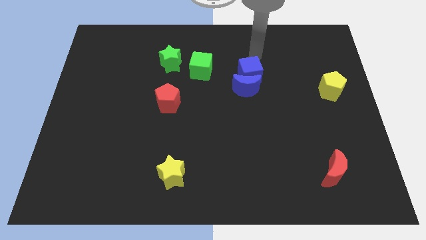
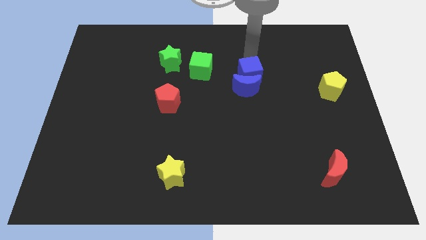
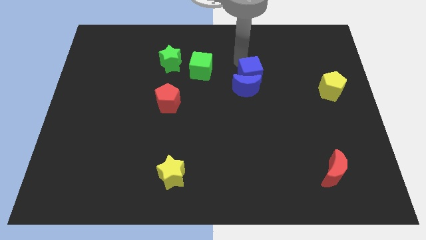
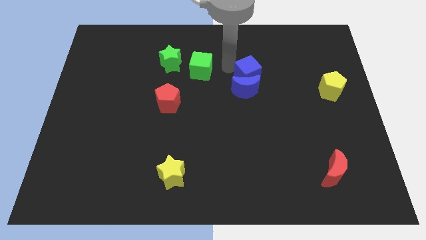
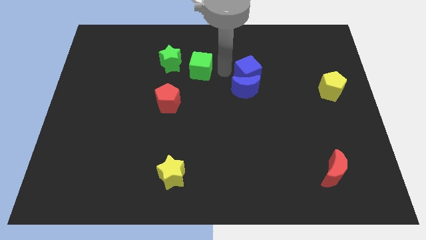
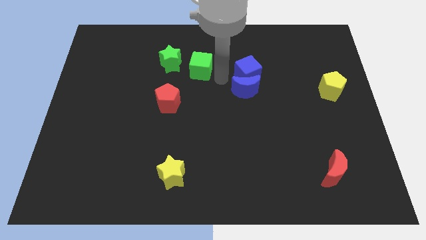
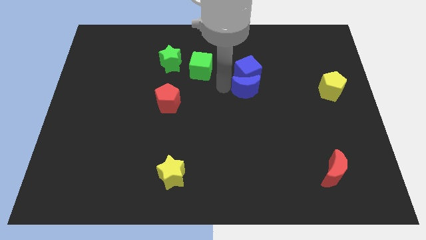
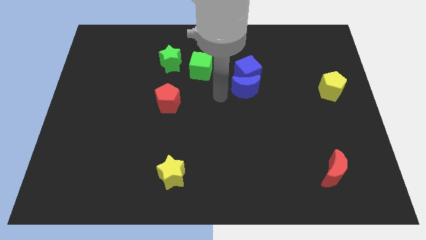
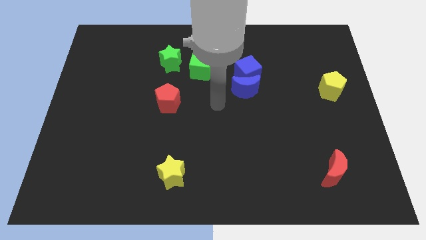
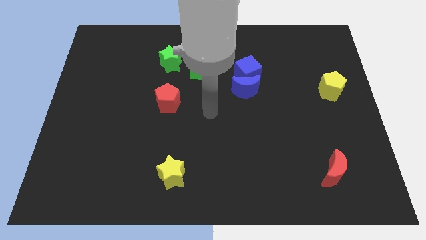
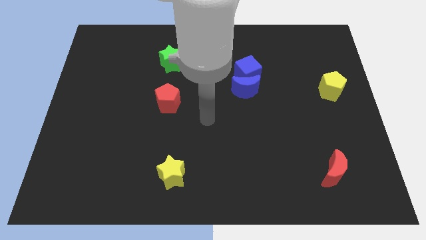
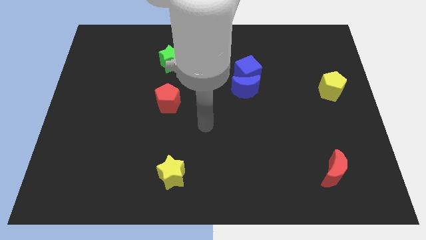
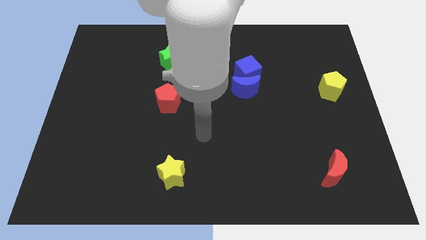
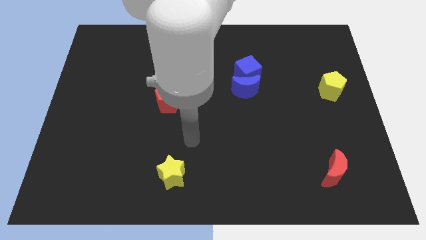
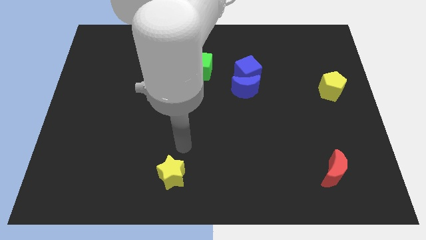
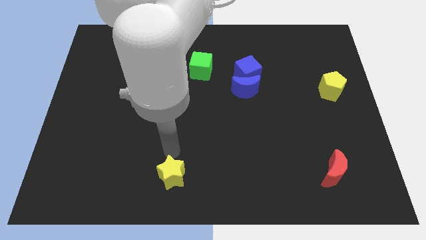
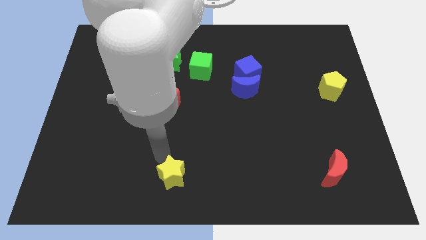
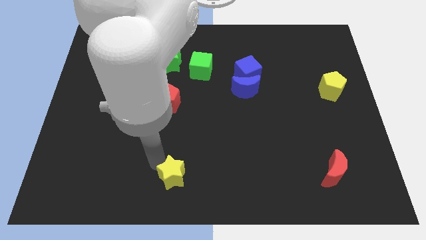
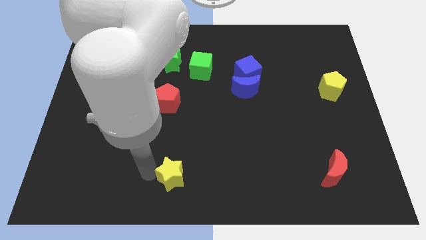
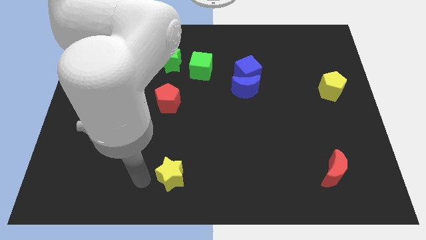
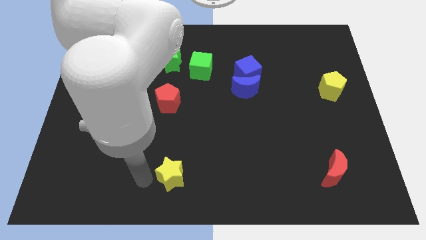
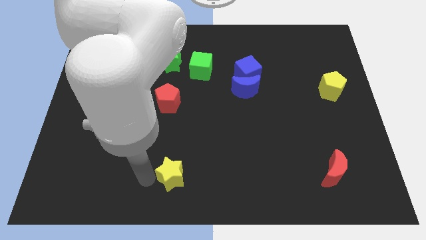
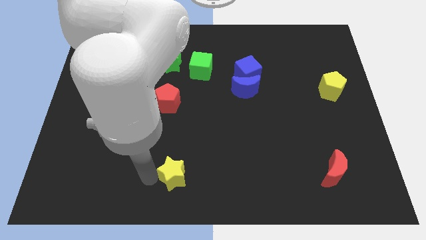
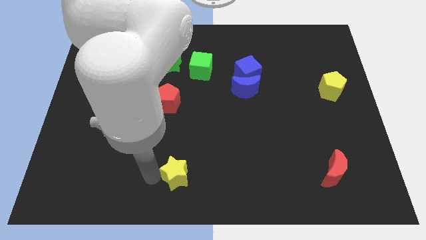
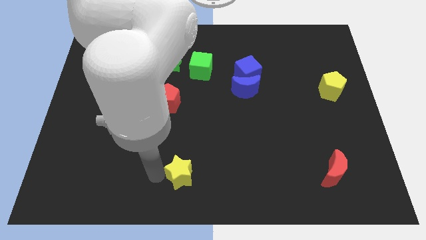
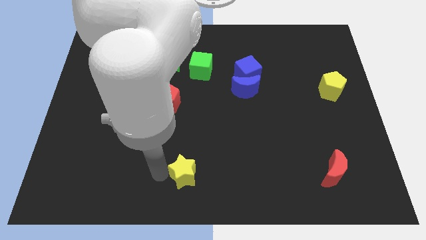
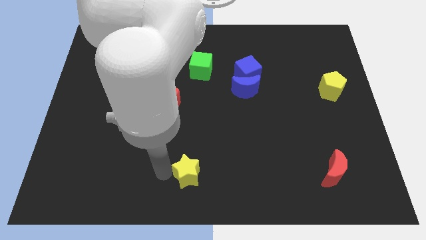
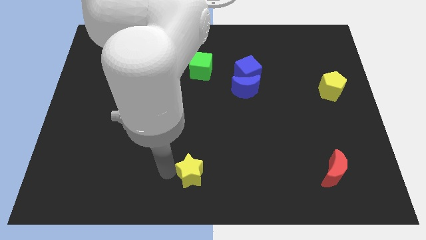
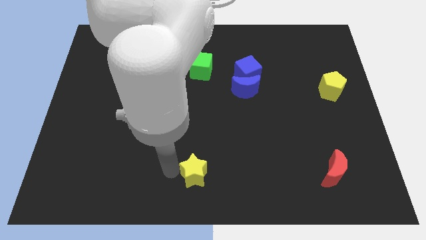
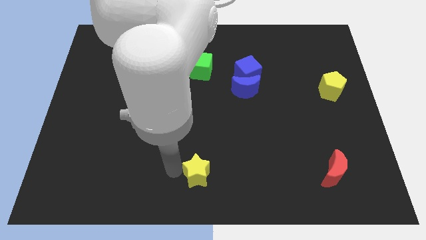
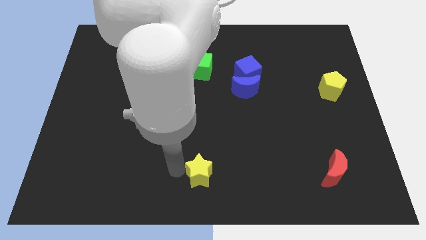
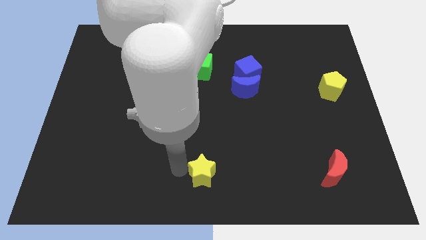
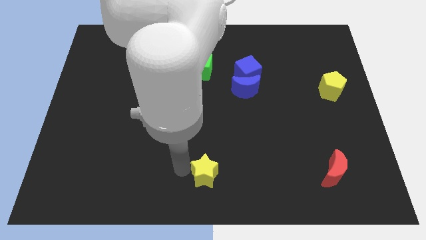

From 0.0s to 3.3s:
slightly move the yellow star right

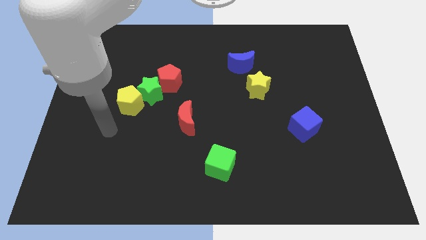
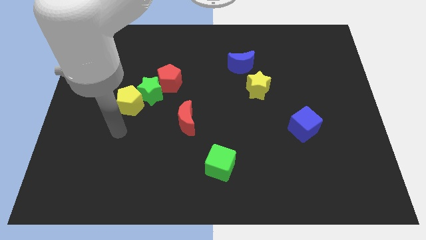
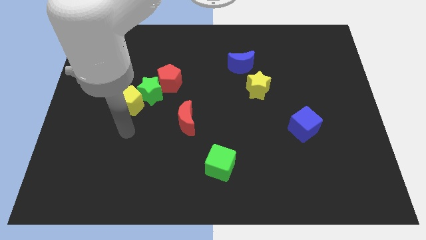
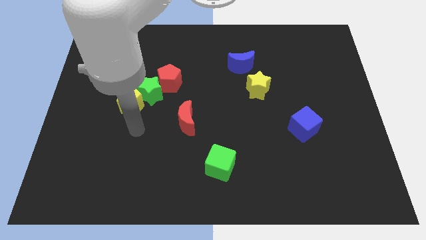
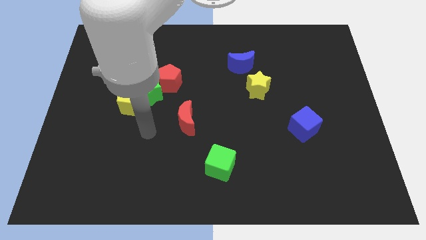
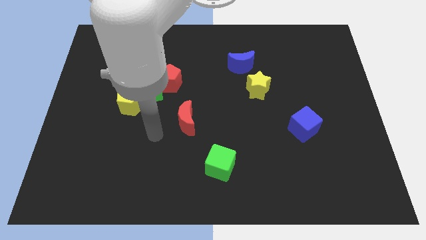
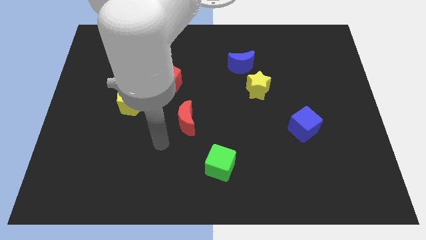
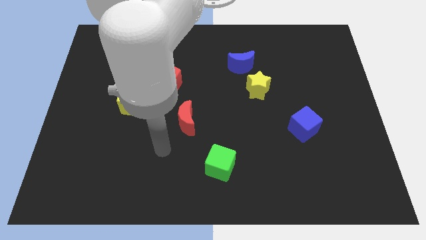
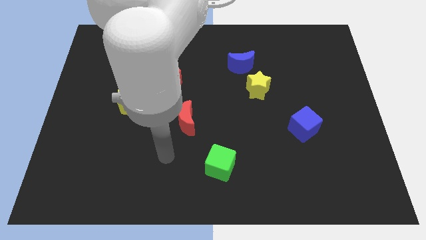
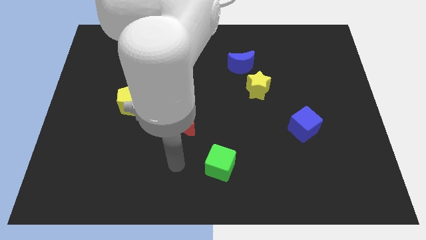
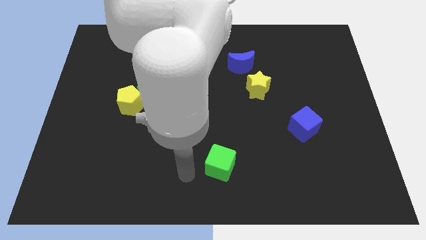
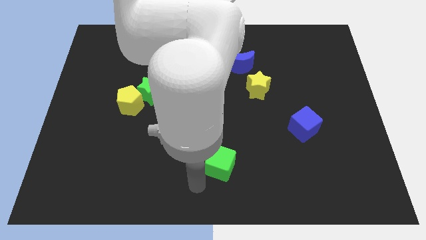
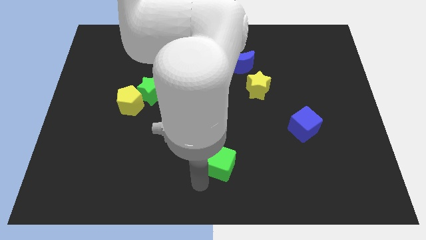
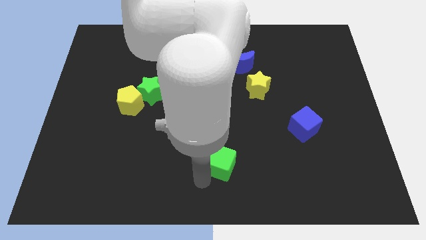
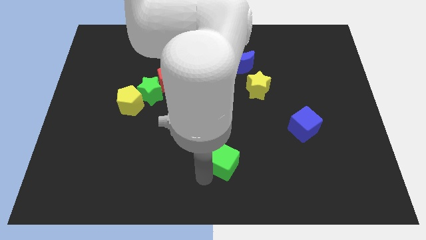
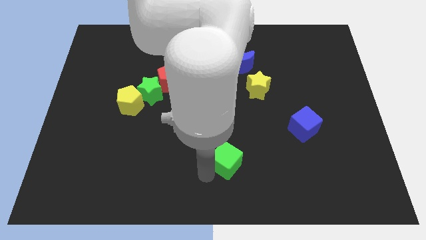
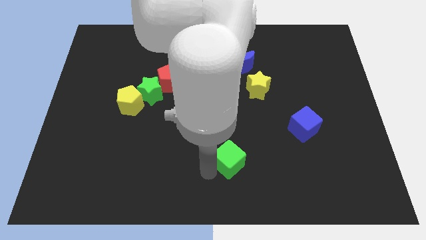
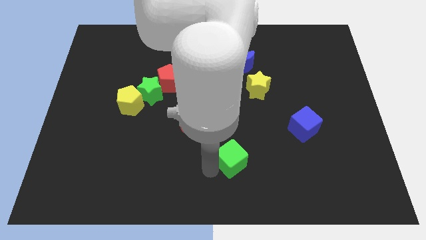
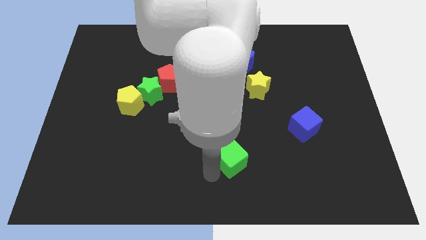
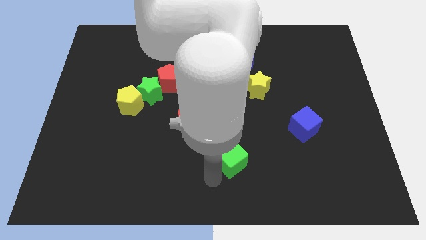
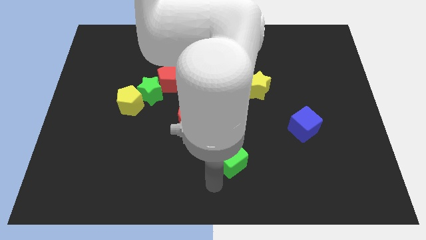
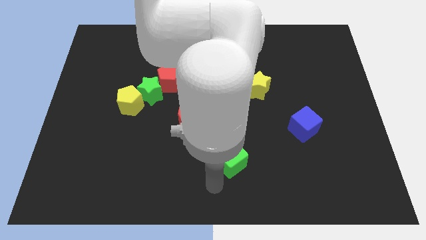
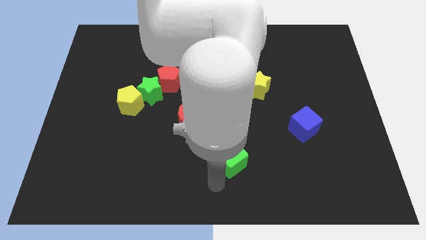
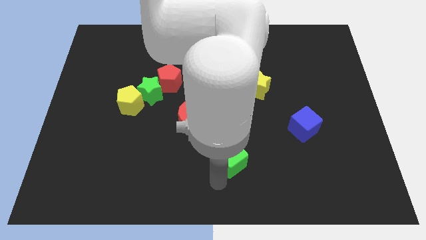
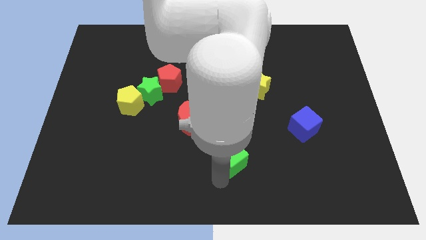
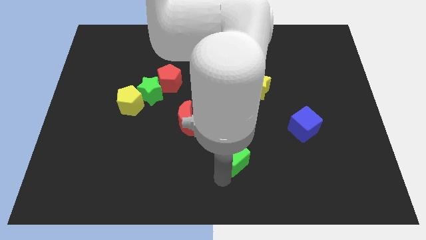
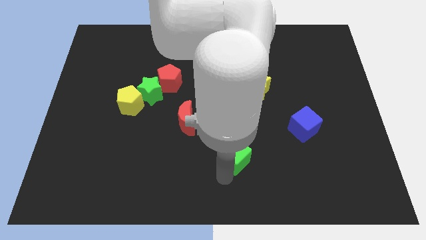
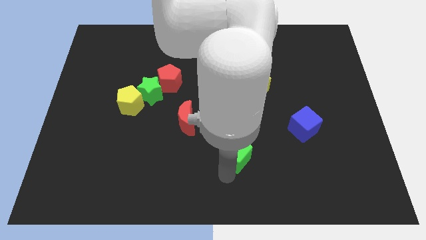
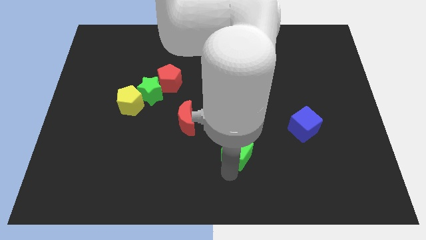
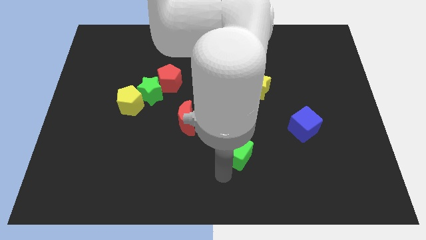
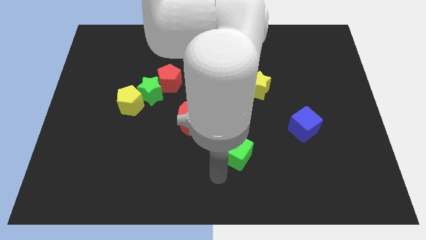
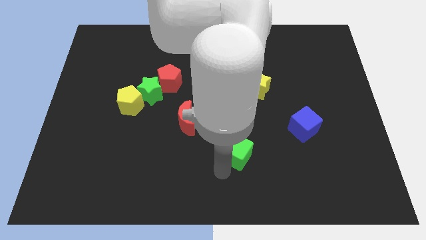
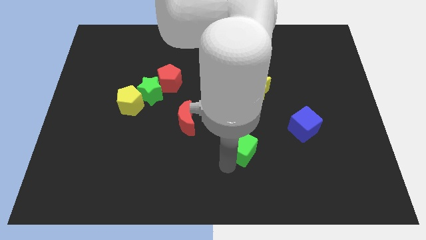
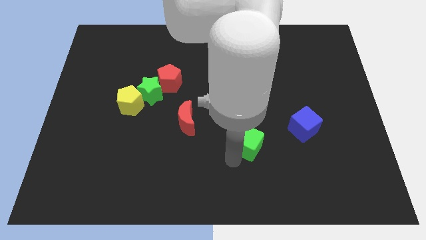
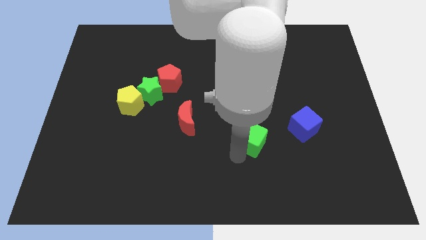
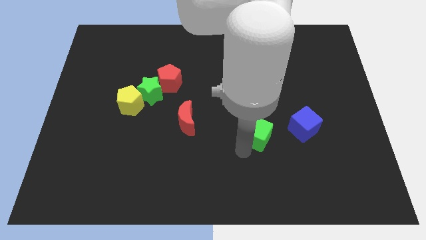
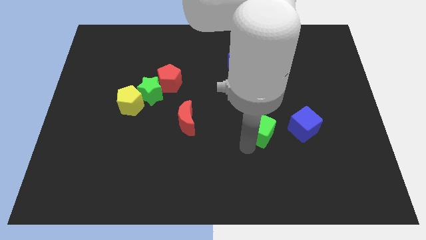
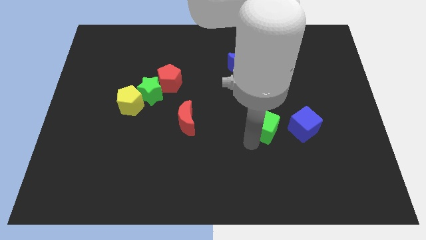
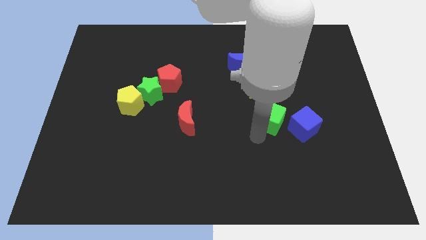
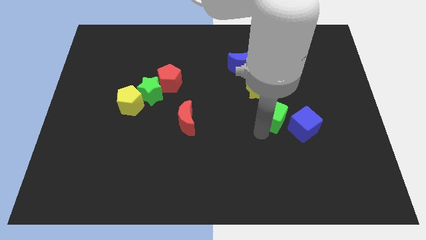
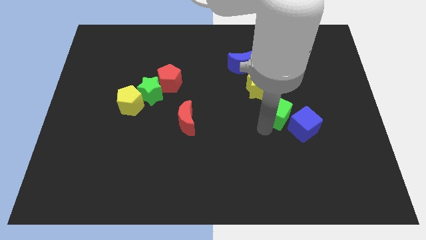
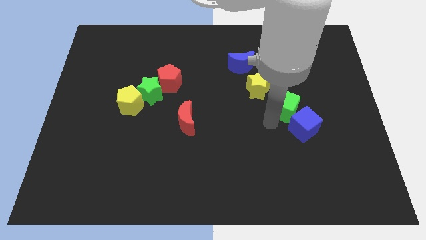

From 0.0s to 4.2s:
slide the green cube upwards and right diagonally

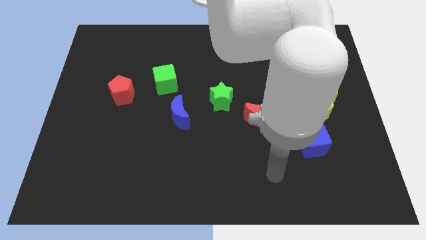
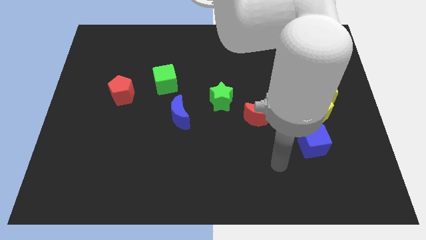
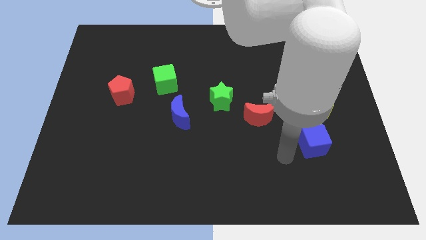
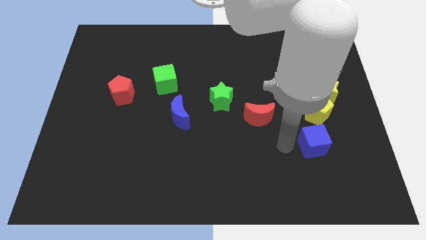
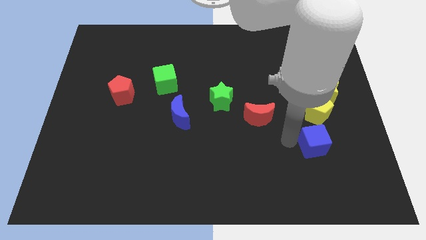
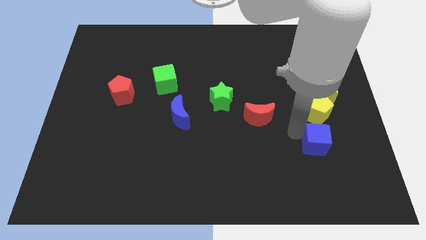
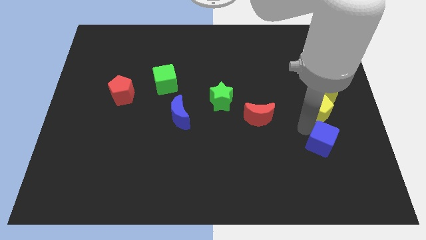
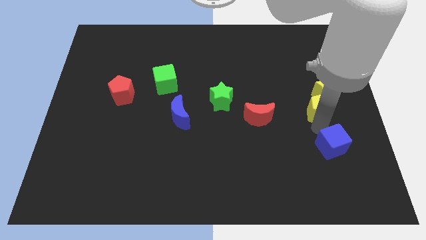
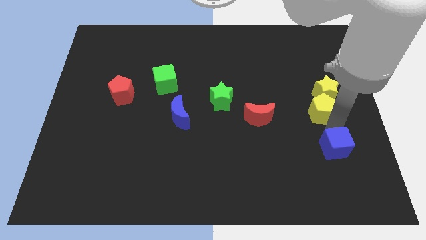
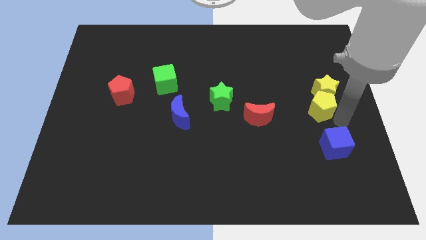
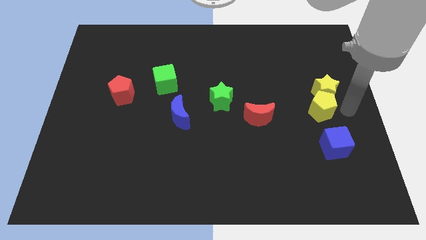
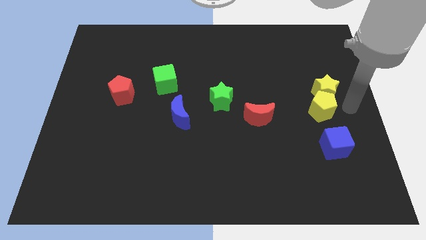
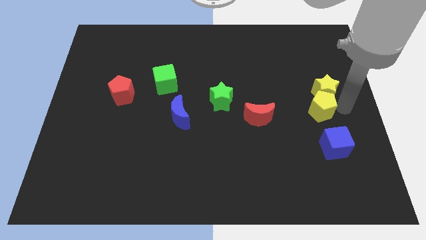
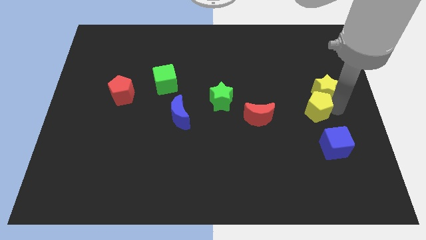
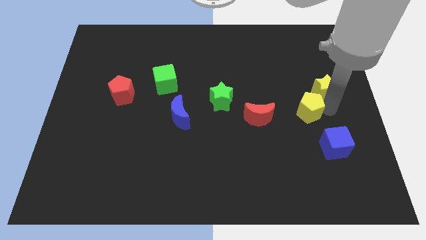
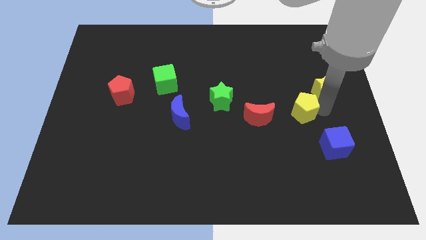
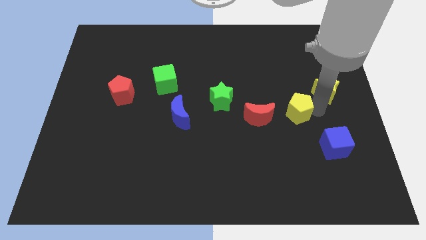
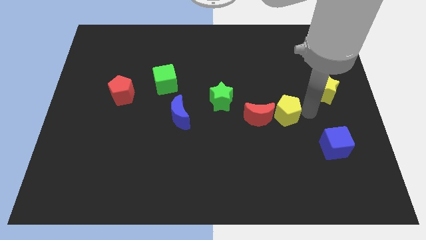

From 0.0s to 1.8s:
move the yellow pentagon left somewhat
